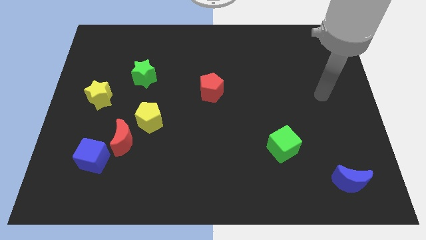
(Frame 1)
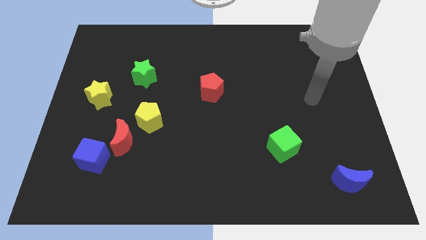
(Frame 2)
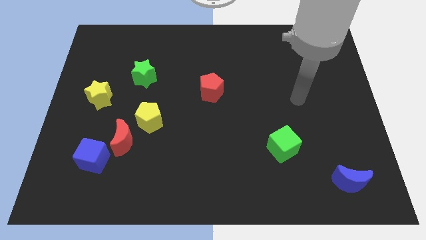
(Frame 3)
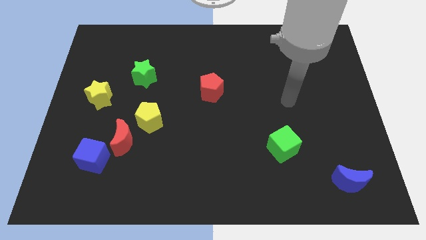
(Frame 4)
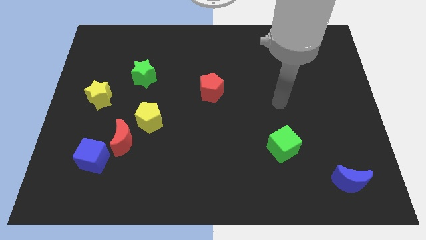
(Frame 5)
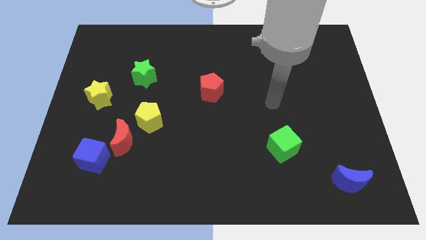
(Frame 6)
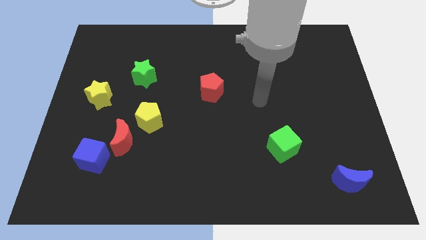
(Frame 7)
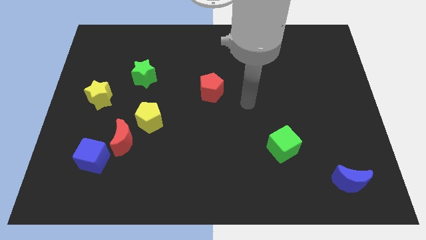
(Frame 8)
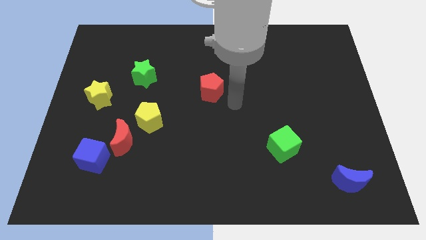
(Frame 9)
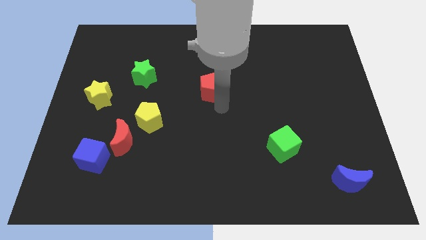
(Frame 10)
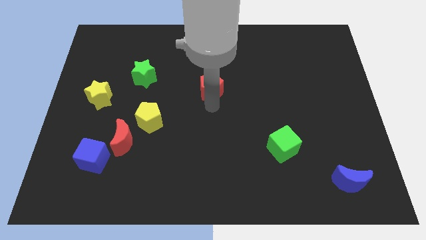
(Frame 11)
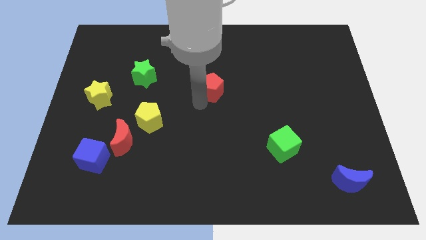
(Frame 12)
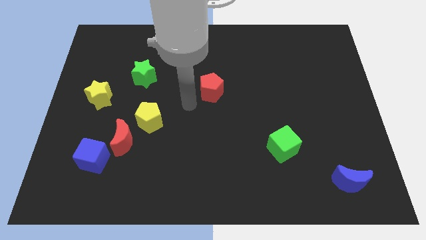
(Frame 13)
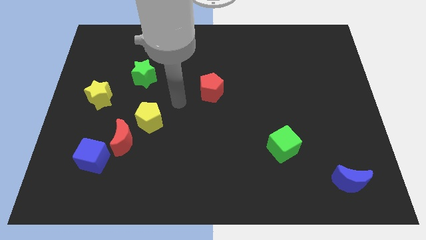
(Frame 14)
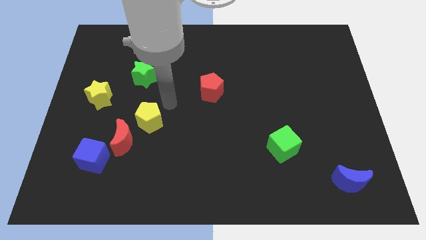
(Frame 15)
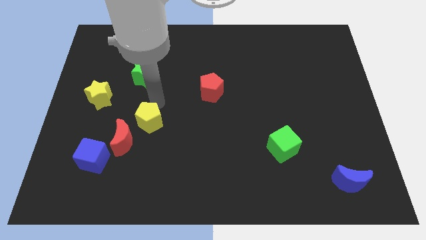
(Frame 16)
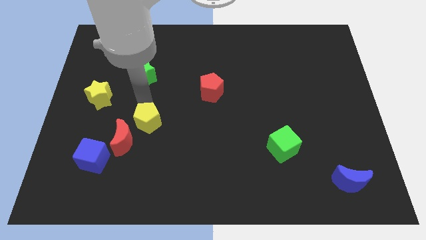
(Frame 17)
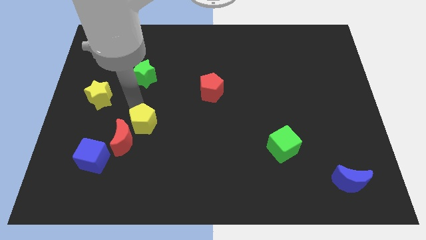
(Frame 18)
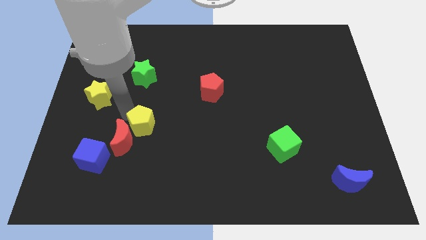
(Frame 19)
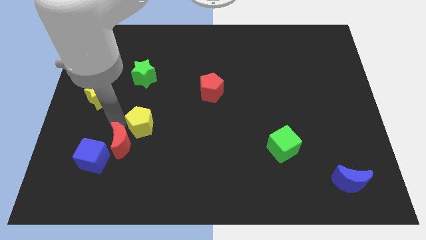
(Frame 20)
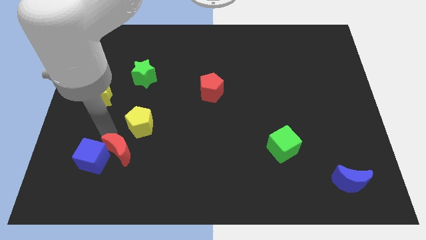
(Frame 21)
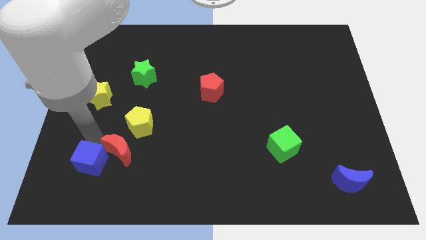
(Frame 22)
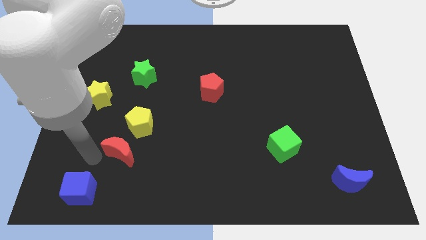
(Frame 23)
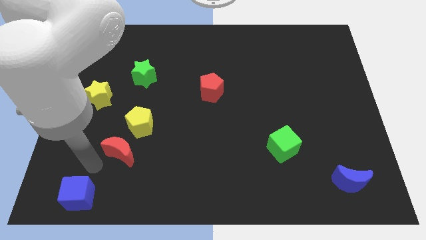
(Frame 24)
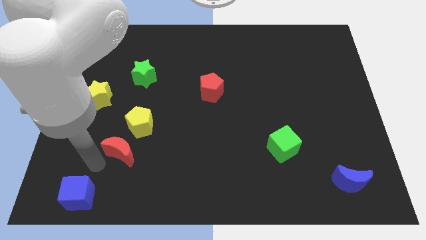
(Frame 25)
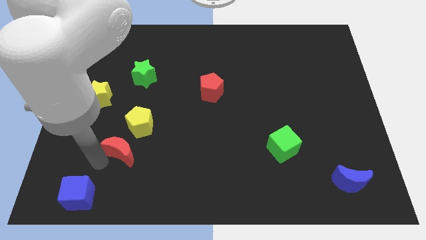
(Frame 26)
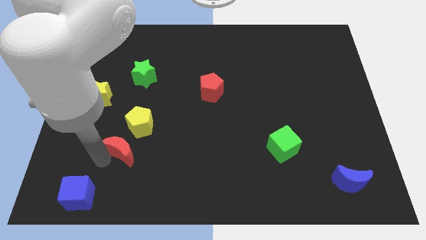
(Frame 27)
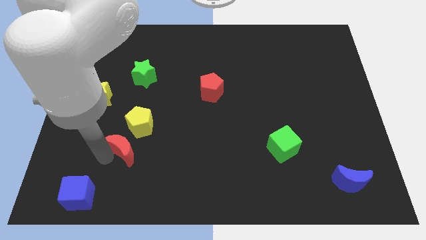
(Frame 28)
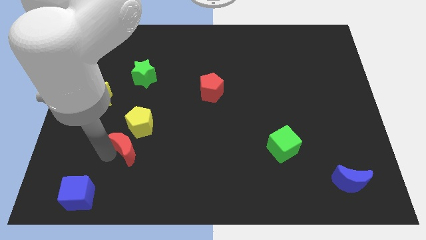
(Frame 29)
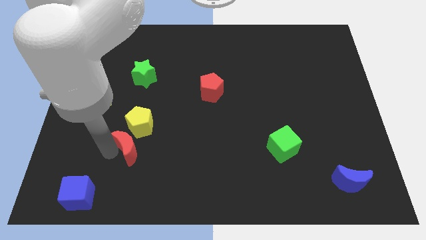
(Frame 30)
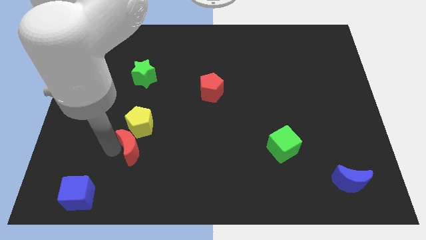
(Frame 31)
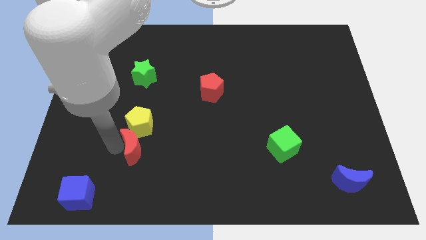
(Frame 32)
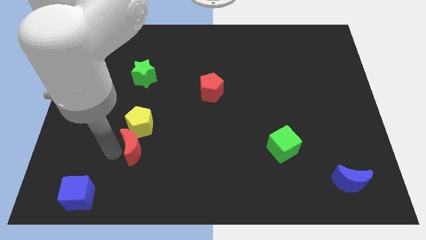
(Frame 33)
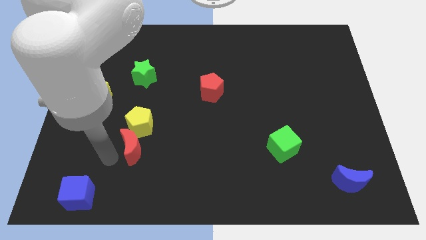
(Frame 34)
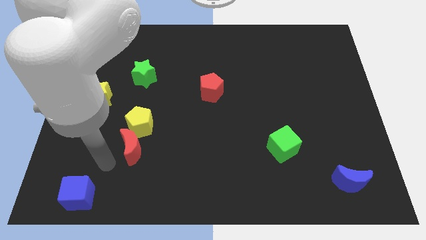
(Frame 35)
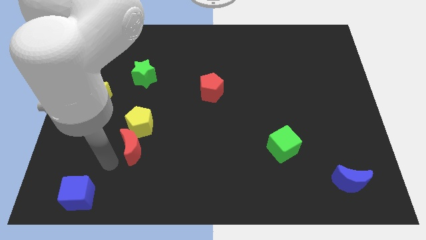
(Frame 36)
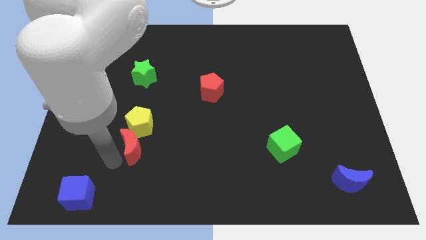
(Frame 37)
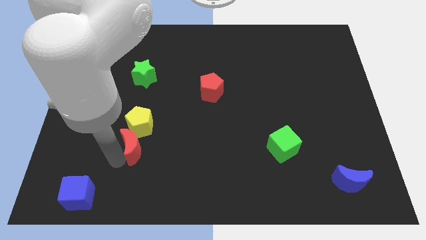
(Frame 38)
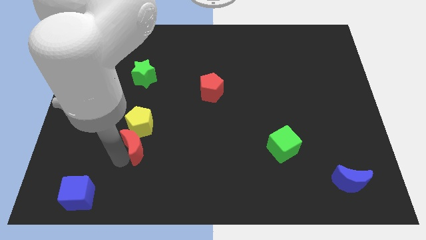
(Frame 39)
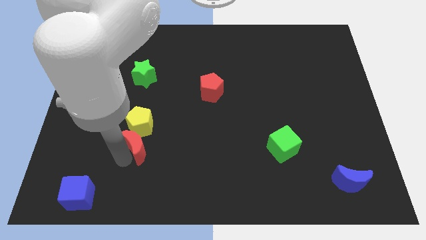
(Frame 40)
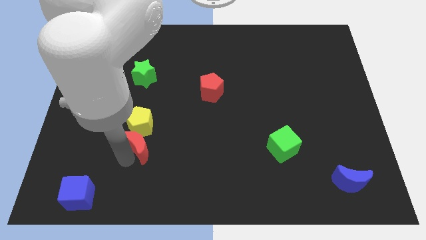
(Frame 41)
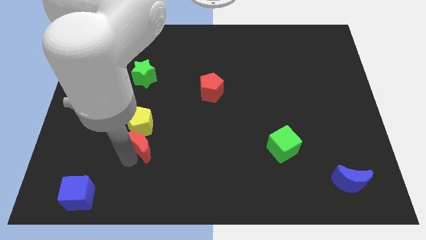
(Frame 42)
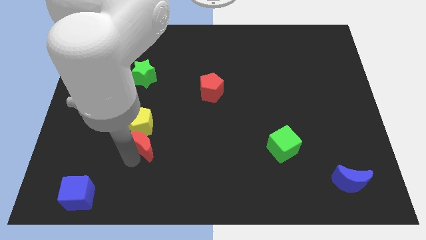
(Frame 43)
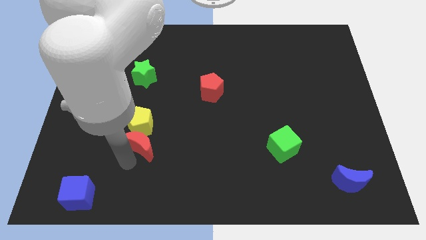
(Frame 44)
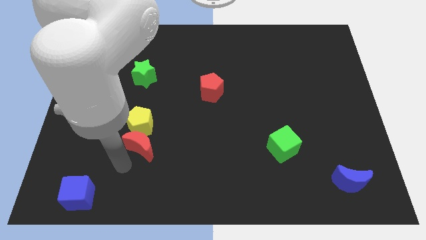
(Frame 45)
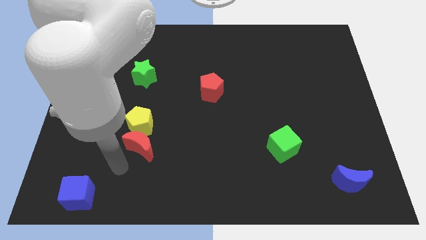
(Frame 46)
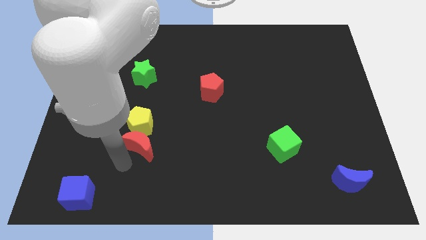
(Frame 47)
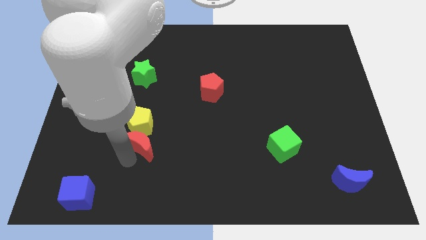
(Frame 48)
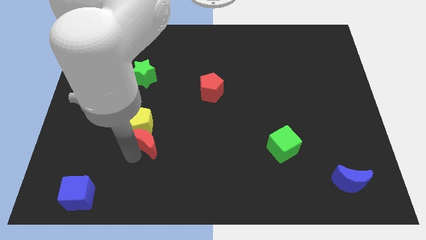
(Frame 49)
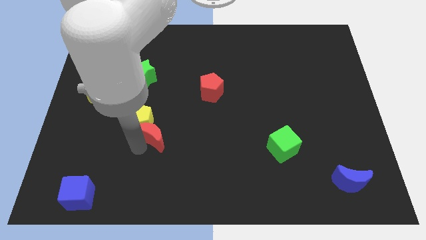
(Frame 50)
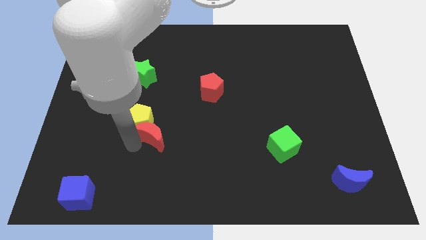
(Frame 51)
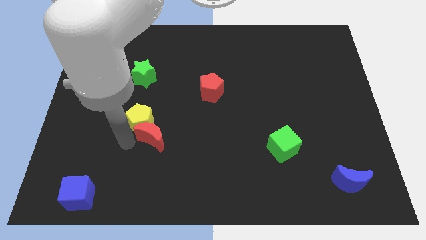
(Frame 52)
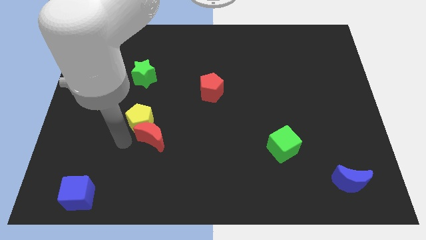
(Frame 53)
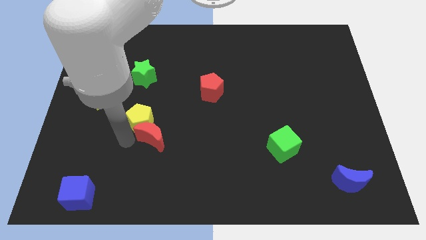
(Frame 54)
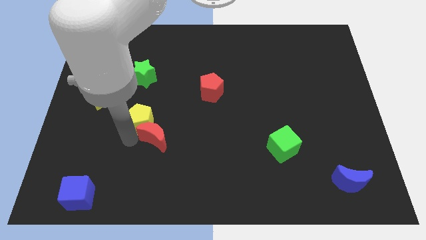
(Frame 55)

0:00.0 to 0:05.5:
slightly slide the red moon right

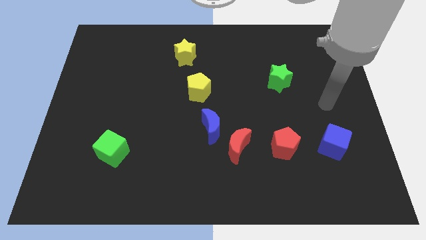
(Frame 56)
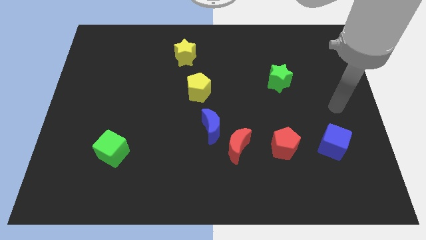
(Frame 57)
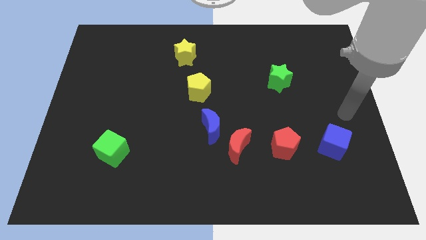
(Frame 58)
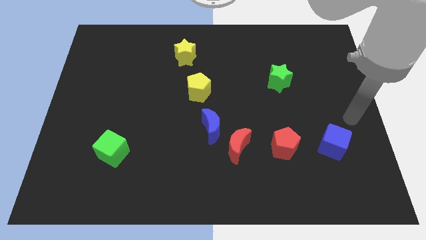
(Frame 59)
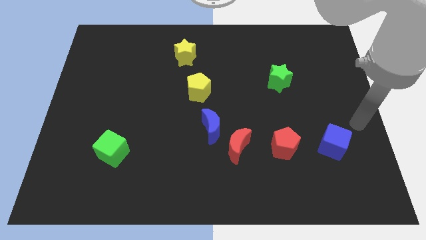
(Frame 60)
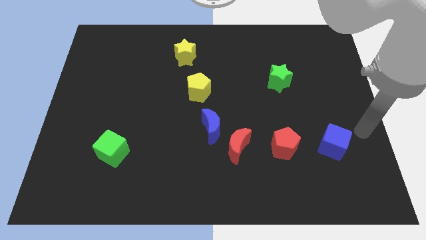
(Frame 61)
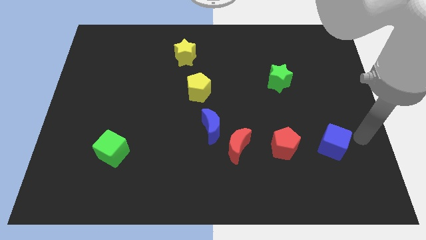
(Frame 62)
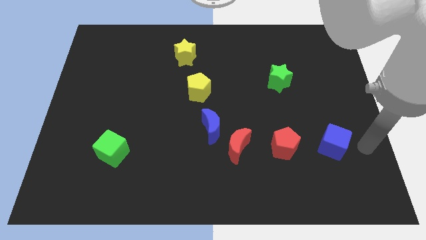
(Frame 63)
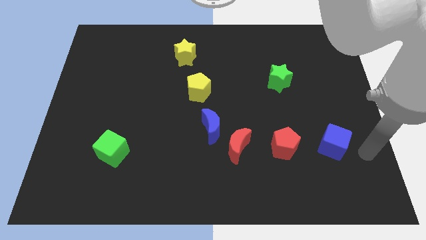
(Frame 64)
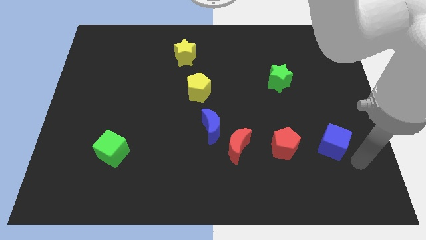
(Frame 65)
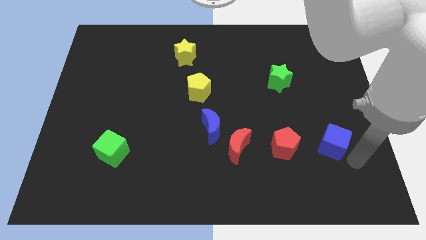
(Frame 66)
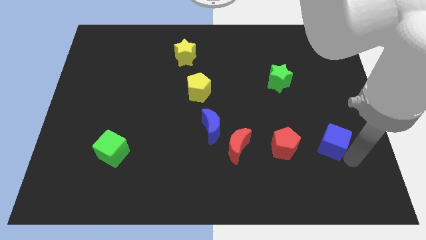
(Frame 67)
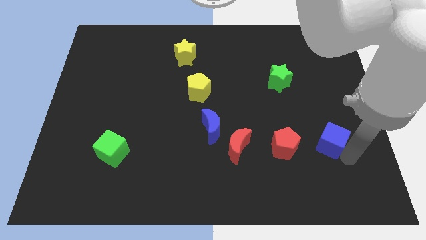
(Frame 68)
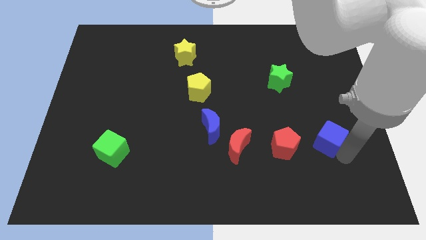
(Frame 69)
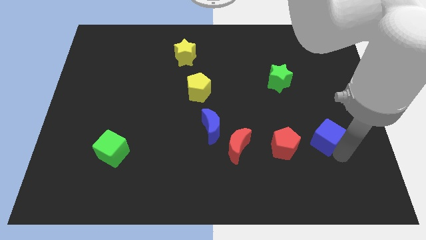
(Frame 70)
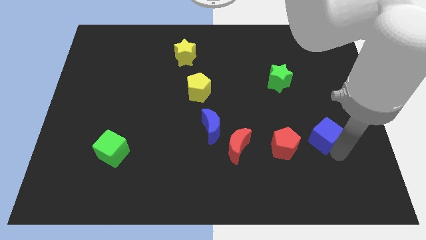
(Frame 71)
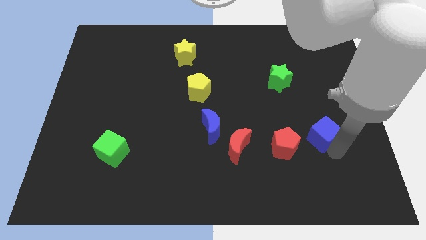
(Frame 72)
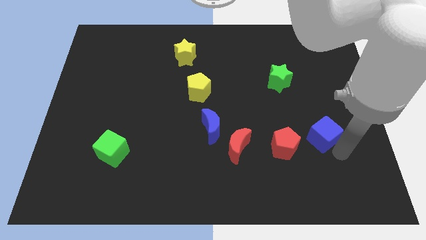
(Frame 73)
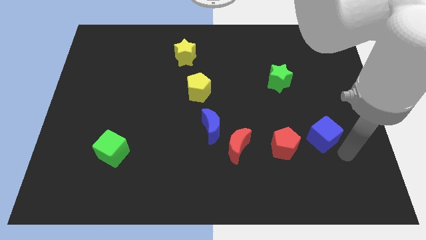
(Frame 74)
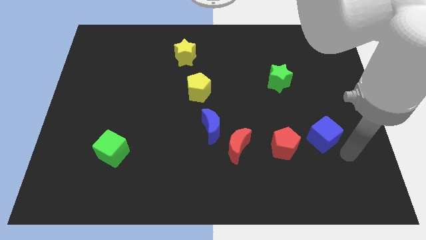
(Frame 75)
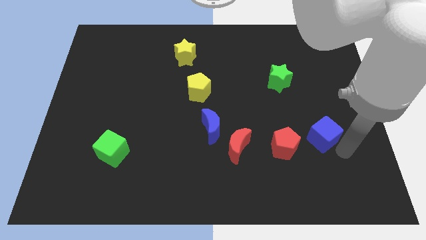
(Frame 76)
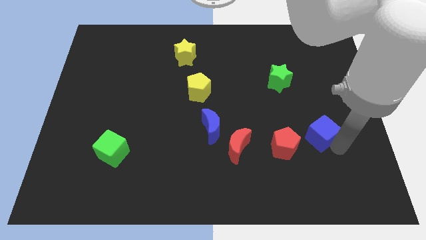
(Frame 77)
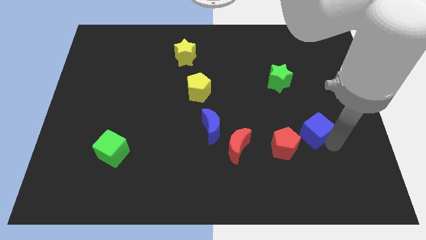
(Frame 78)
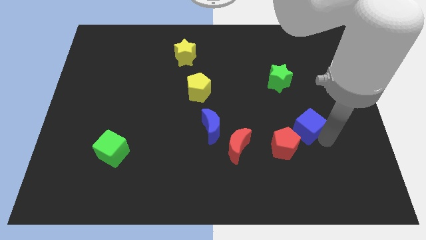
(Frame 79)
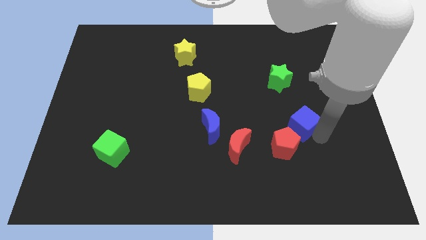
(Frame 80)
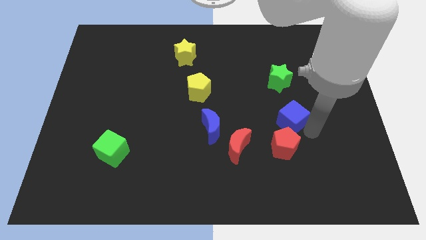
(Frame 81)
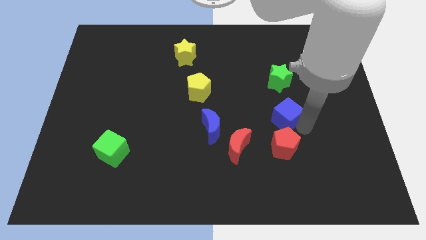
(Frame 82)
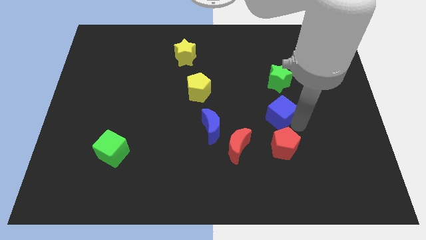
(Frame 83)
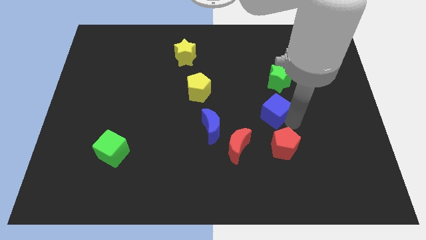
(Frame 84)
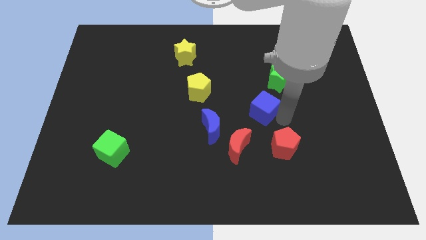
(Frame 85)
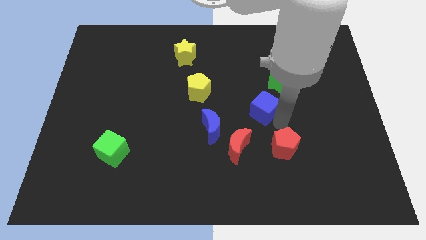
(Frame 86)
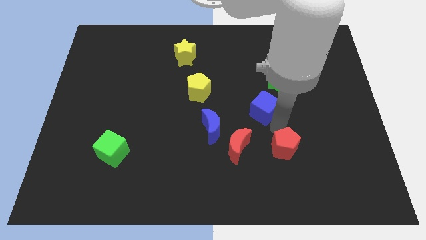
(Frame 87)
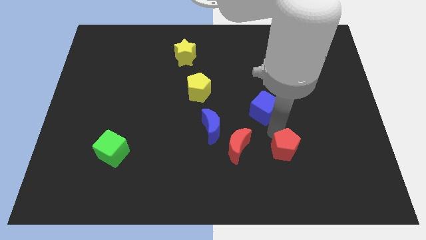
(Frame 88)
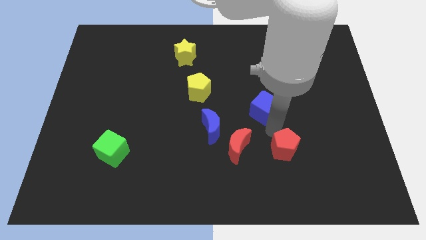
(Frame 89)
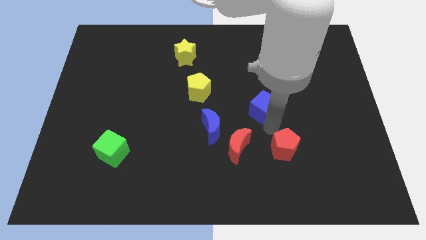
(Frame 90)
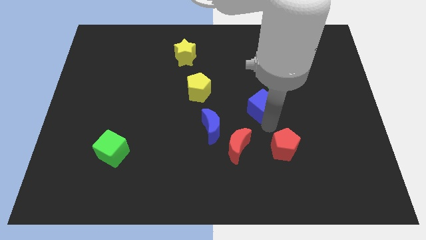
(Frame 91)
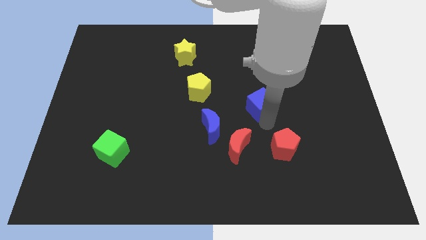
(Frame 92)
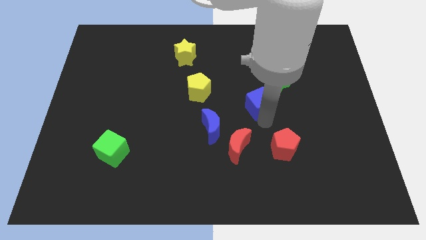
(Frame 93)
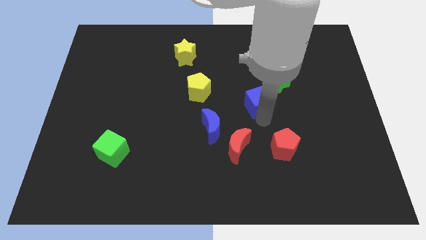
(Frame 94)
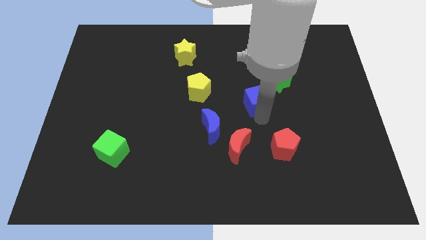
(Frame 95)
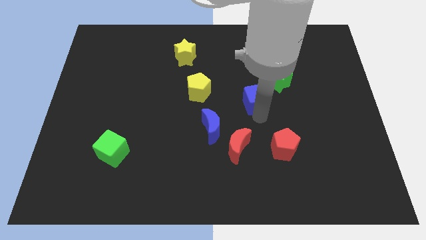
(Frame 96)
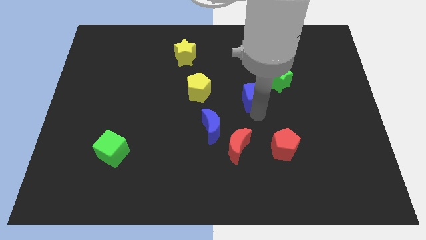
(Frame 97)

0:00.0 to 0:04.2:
move the blue cube upwards and to the left diagonally
